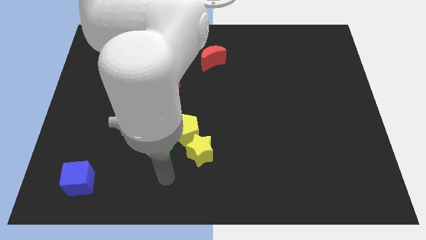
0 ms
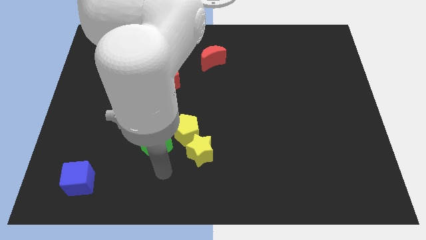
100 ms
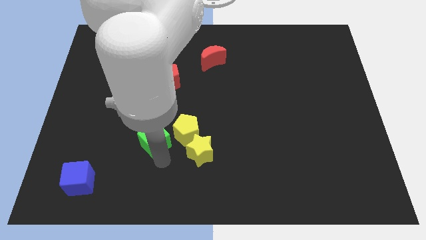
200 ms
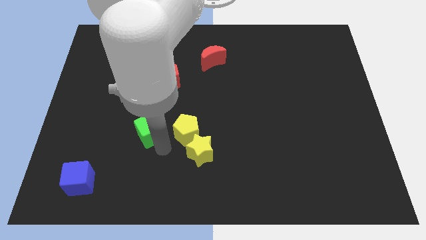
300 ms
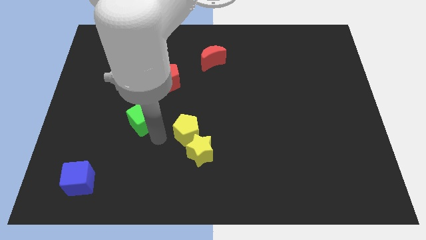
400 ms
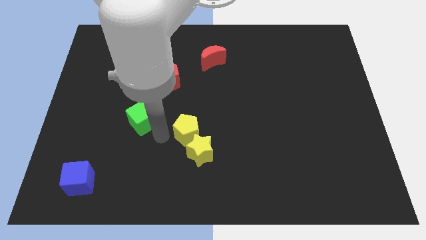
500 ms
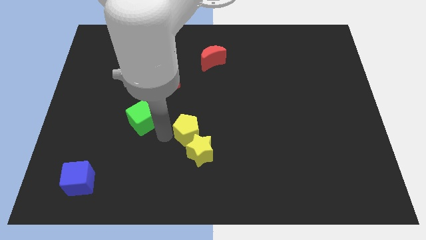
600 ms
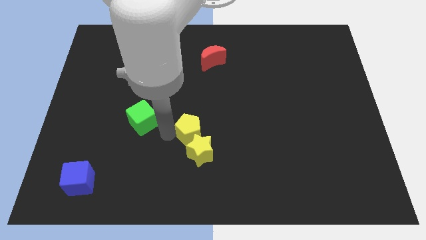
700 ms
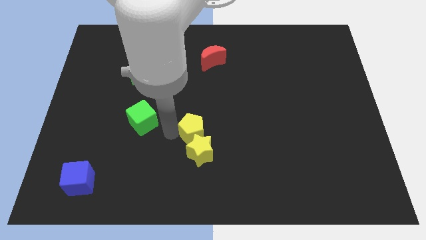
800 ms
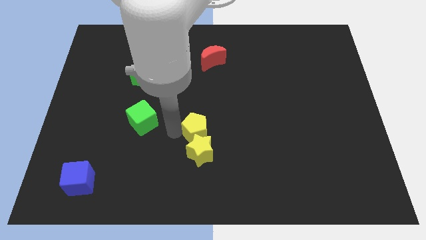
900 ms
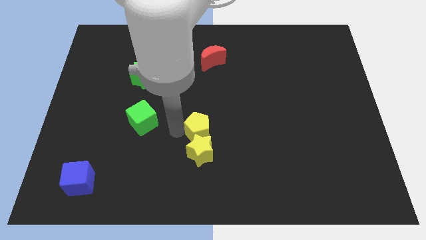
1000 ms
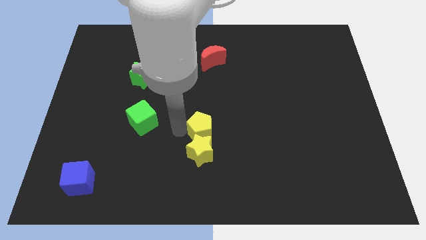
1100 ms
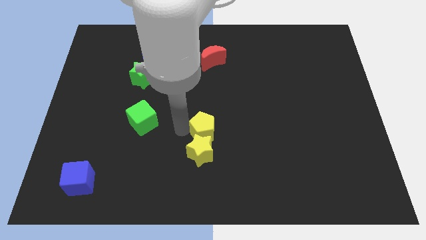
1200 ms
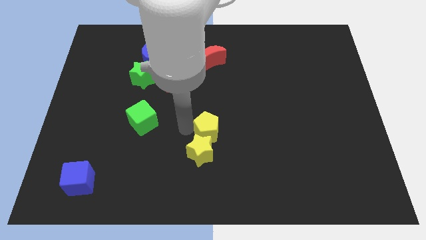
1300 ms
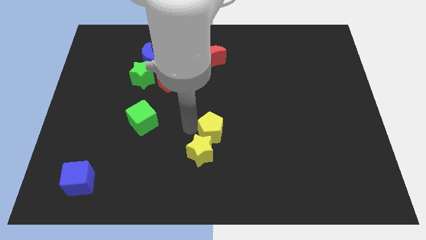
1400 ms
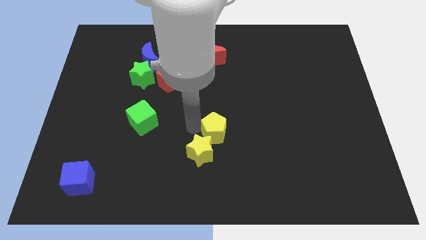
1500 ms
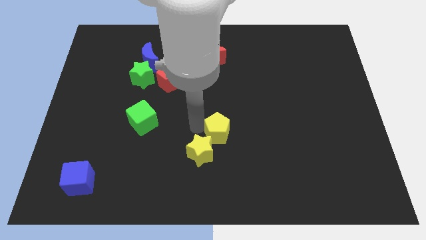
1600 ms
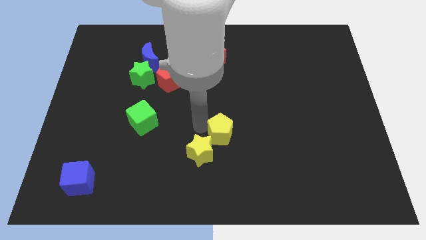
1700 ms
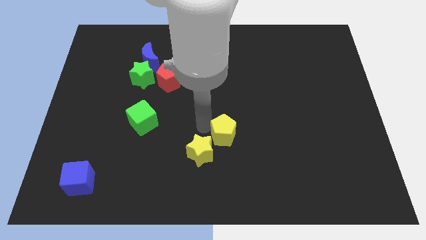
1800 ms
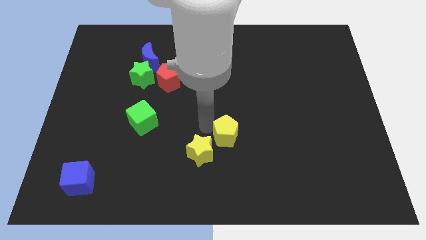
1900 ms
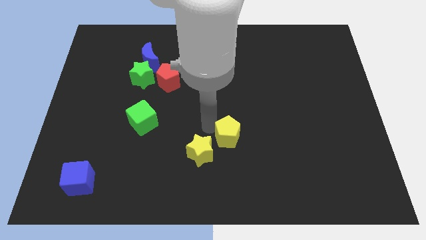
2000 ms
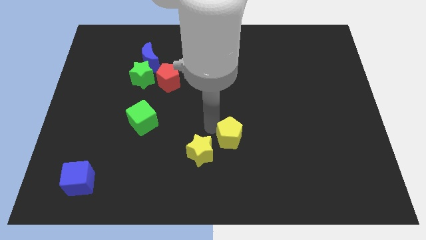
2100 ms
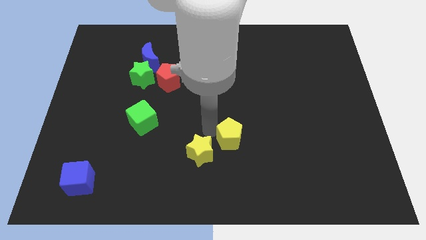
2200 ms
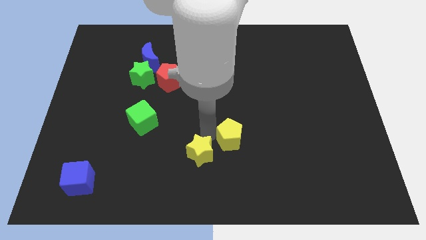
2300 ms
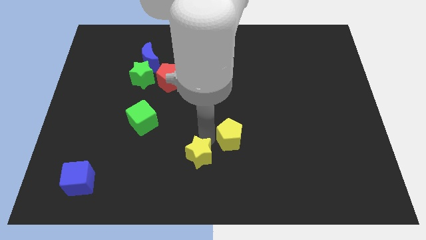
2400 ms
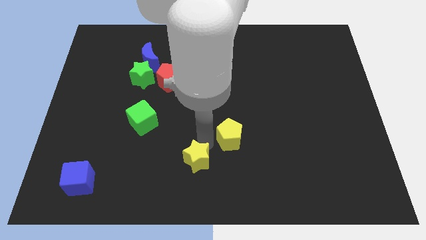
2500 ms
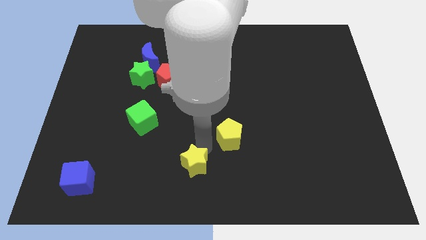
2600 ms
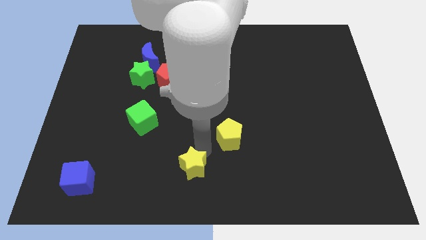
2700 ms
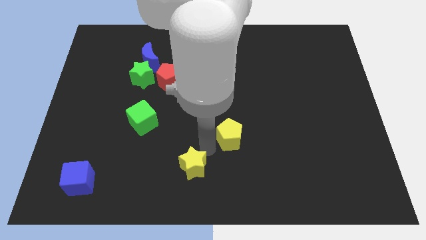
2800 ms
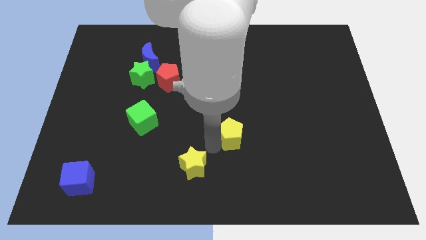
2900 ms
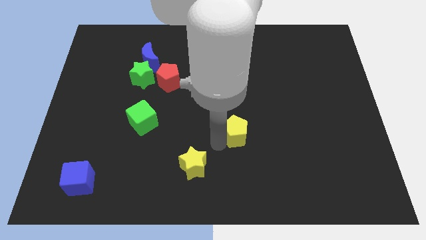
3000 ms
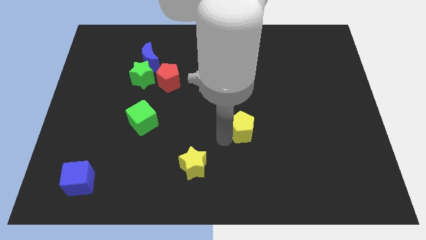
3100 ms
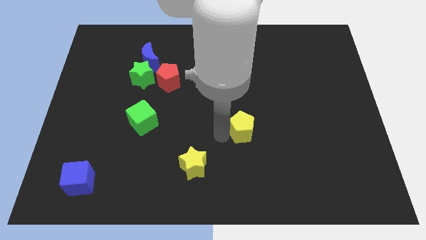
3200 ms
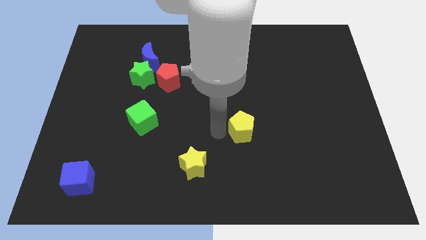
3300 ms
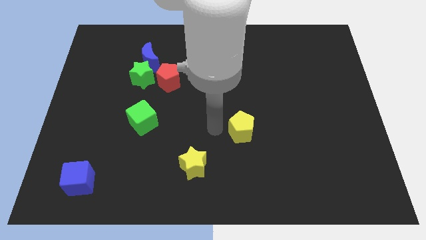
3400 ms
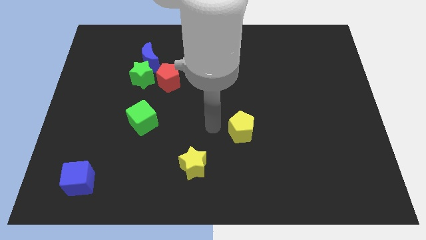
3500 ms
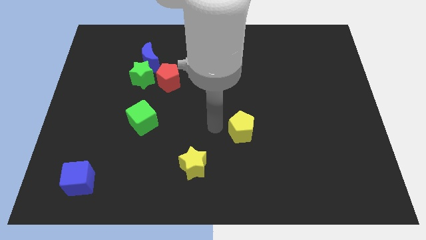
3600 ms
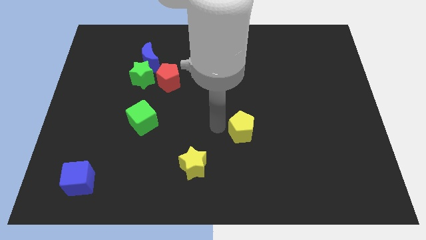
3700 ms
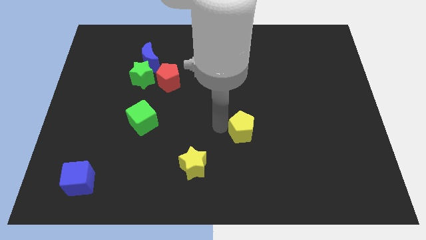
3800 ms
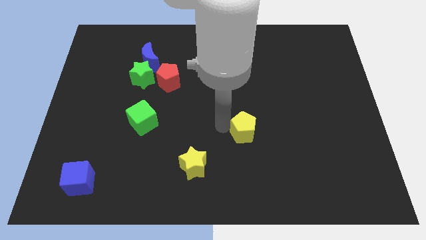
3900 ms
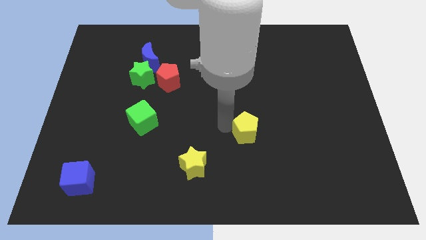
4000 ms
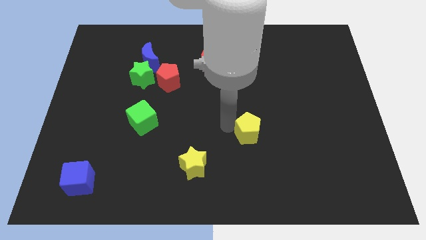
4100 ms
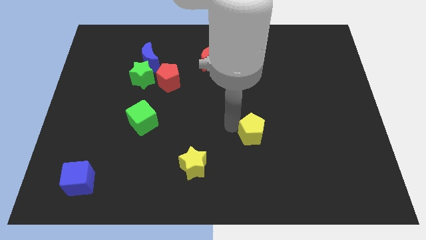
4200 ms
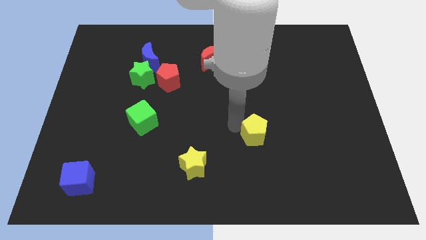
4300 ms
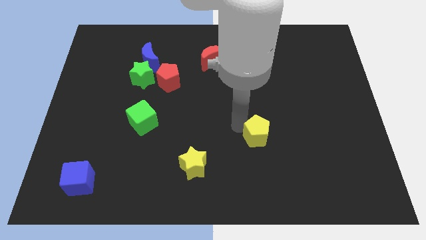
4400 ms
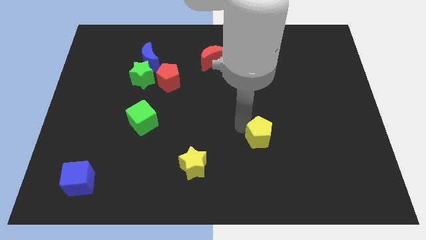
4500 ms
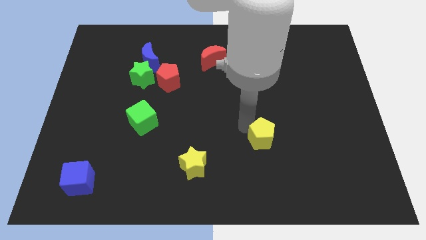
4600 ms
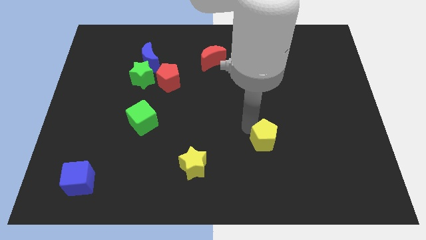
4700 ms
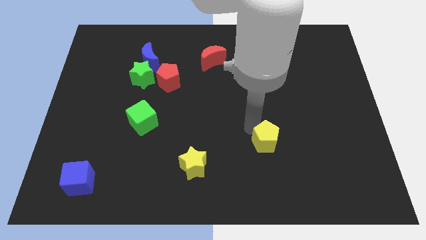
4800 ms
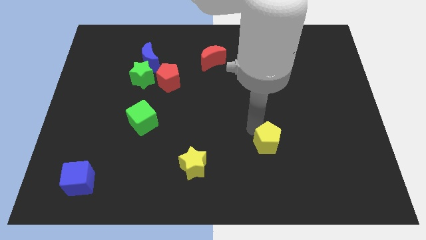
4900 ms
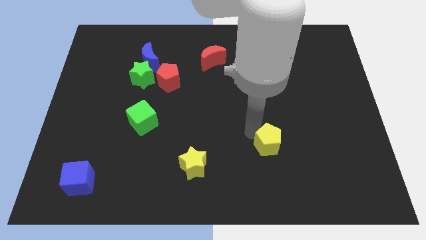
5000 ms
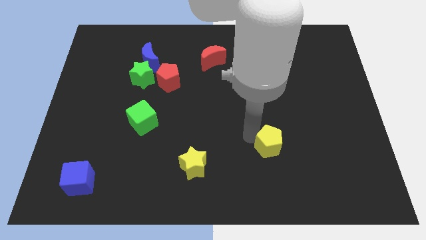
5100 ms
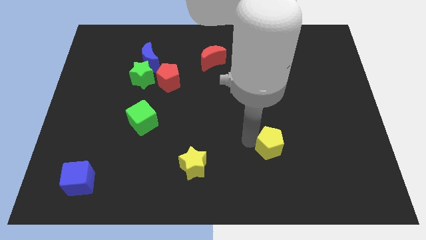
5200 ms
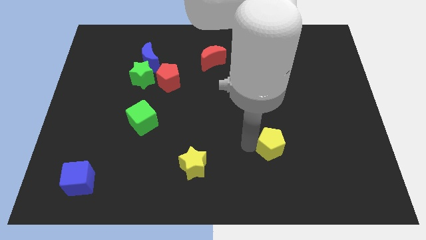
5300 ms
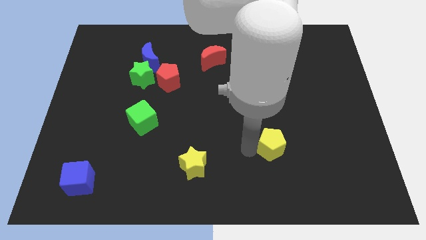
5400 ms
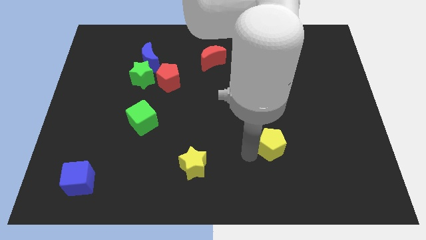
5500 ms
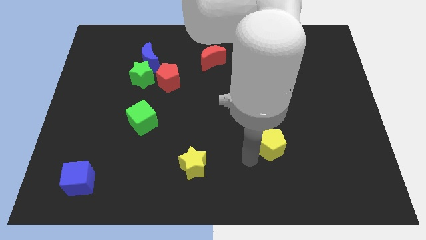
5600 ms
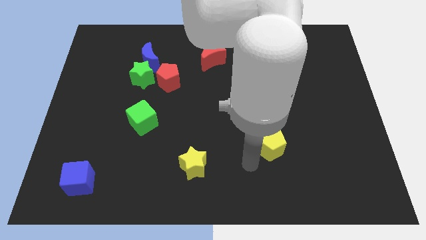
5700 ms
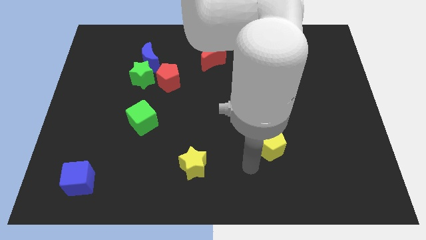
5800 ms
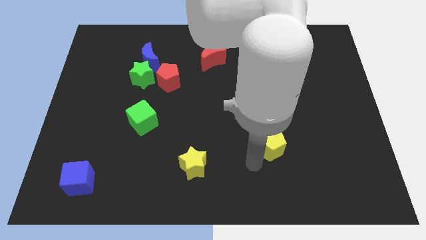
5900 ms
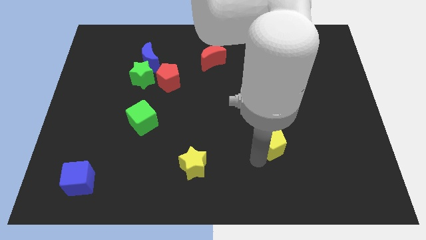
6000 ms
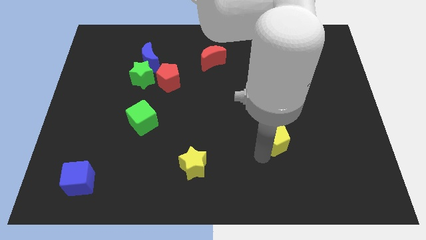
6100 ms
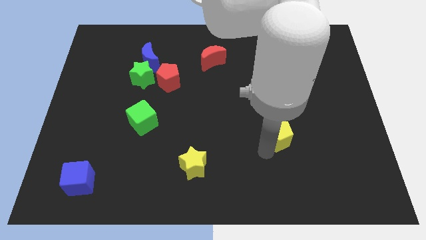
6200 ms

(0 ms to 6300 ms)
slide the yellow pentagon to the right

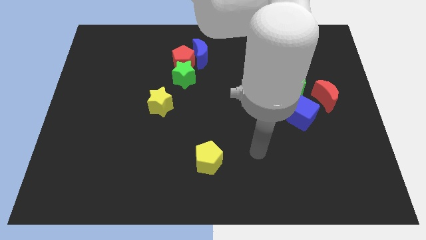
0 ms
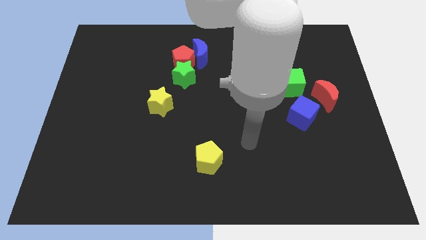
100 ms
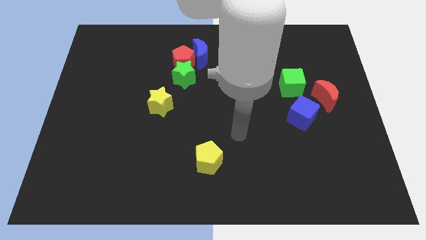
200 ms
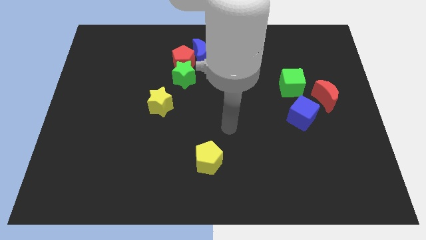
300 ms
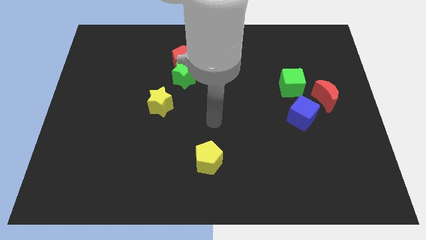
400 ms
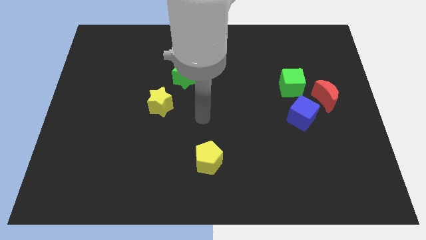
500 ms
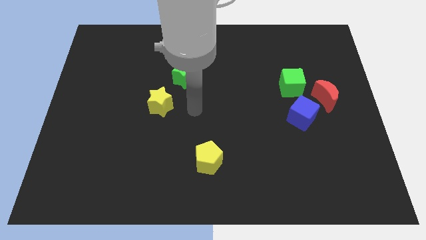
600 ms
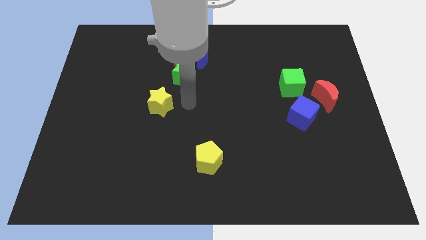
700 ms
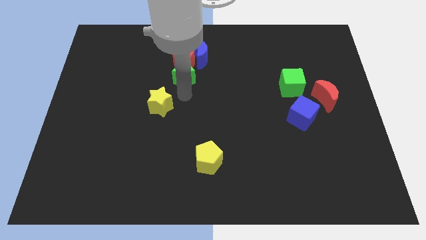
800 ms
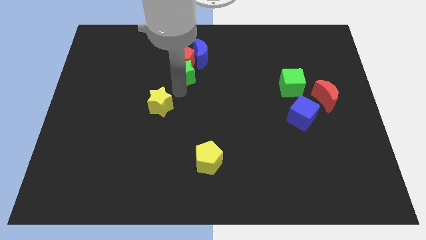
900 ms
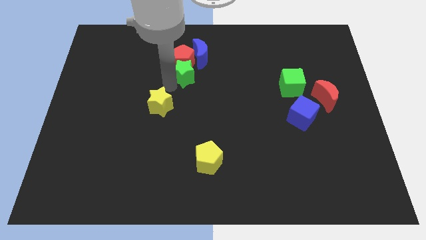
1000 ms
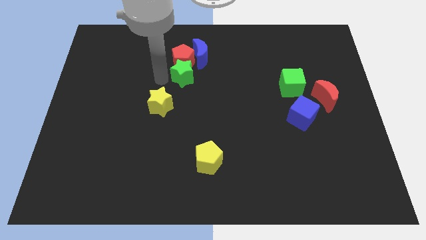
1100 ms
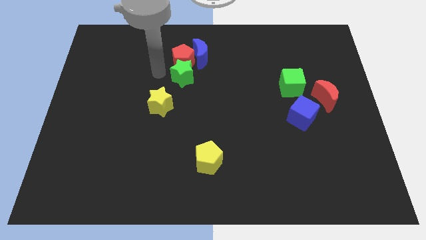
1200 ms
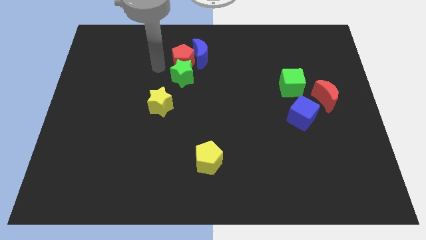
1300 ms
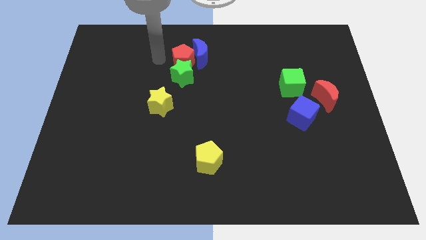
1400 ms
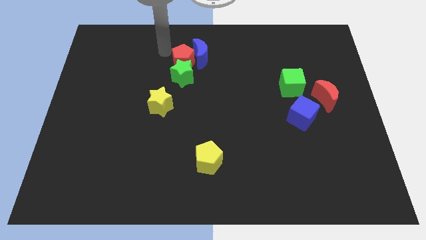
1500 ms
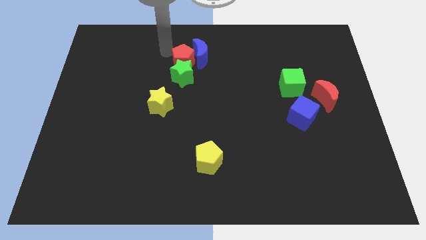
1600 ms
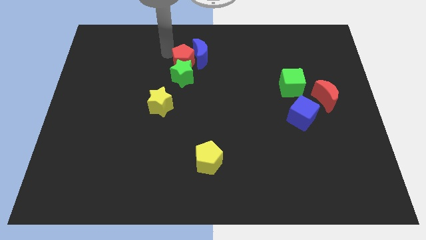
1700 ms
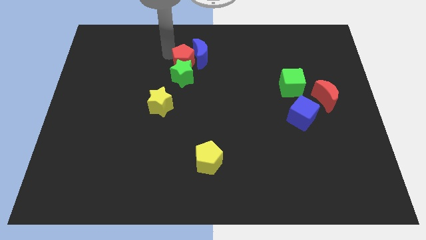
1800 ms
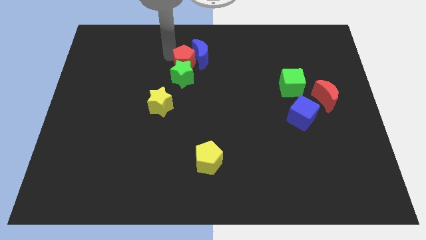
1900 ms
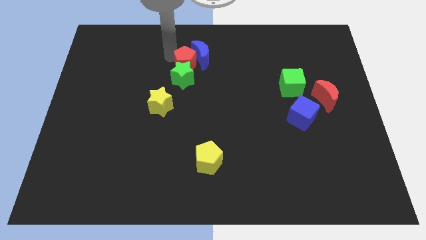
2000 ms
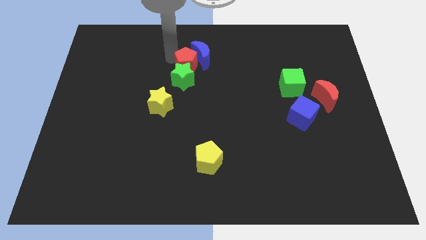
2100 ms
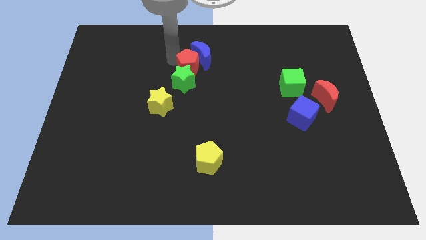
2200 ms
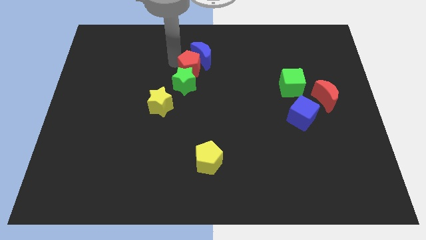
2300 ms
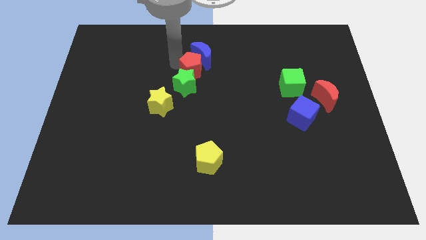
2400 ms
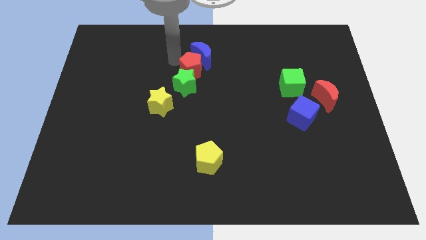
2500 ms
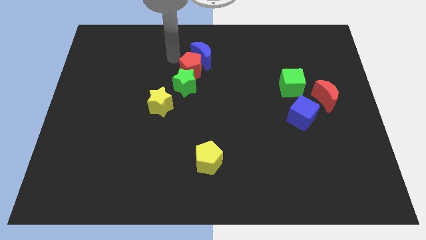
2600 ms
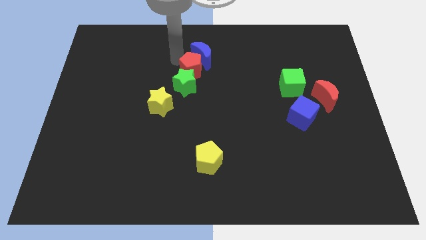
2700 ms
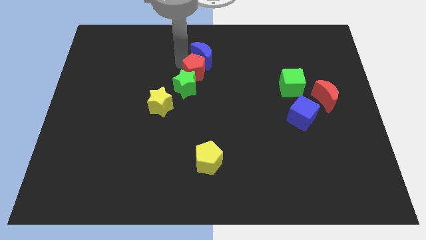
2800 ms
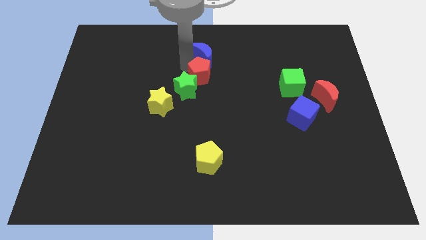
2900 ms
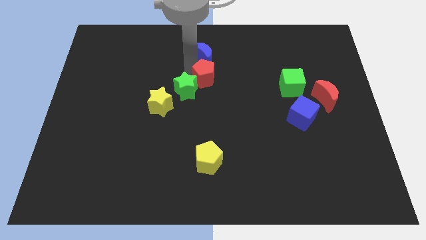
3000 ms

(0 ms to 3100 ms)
push the red pentagon a bit down and to the right diagonally
